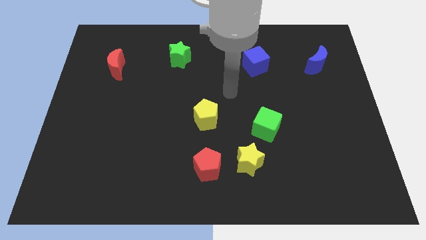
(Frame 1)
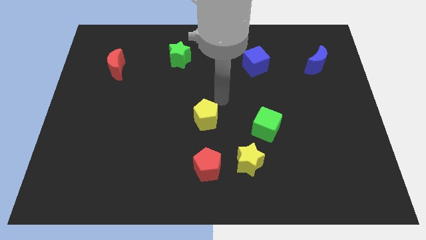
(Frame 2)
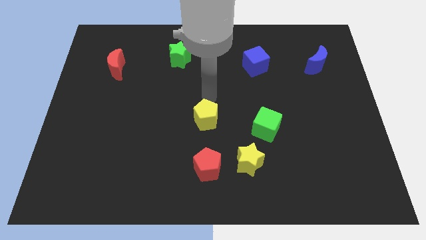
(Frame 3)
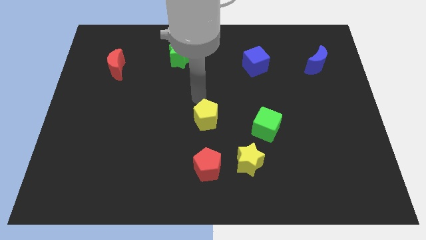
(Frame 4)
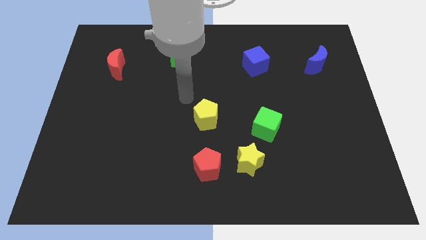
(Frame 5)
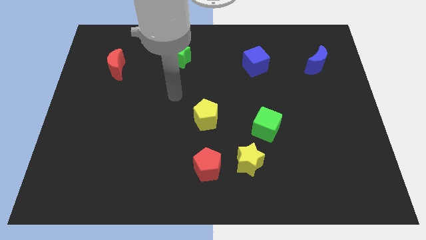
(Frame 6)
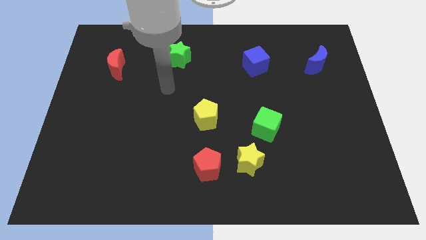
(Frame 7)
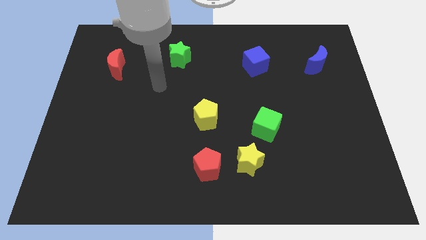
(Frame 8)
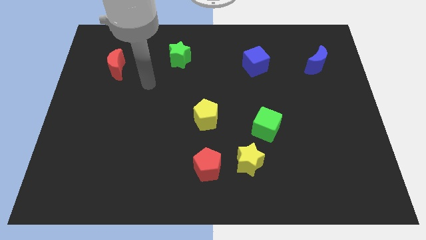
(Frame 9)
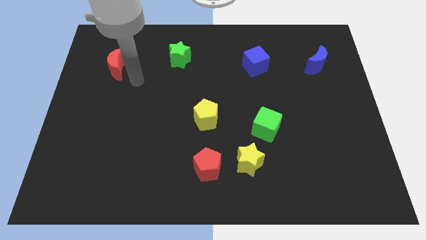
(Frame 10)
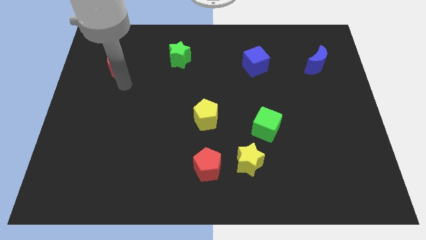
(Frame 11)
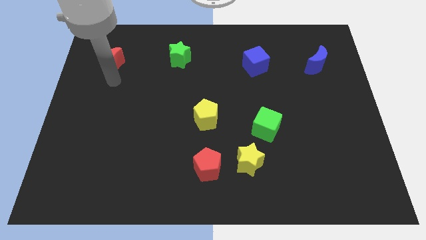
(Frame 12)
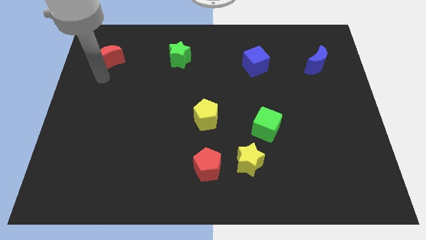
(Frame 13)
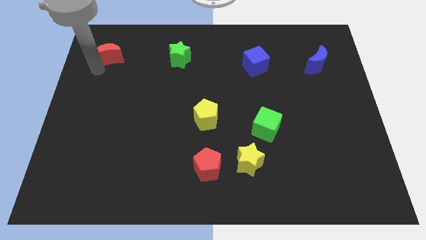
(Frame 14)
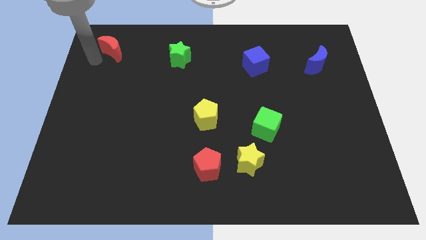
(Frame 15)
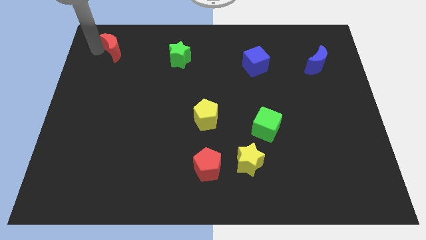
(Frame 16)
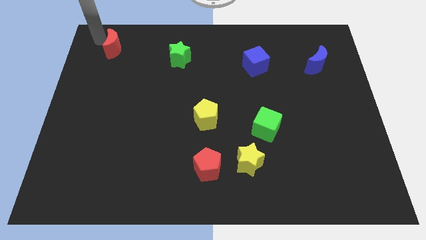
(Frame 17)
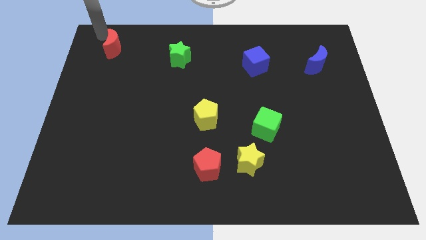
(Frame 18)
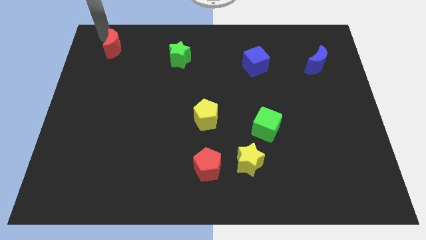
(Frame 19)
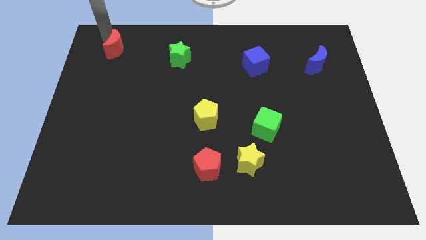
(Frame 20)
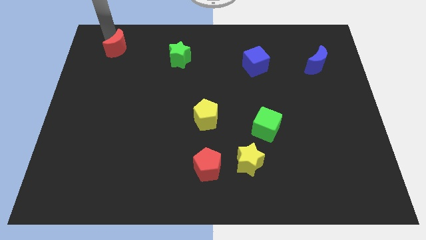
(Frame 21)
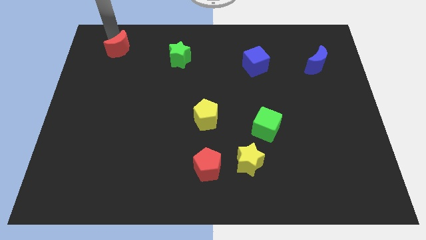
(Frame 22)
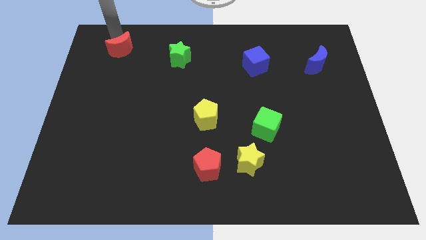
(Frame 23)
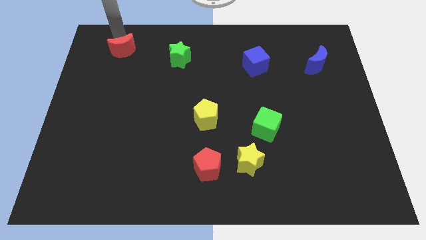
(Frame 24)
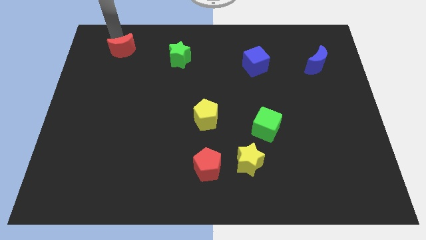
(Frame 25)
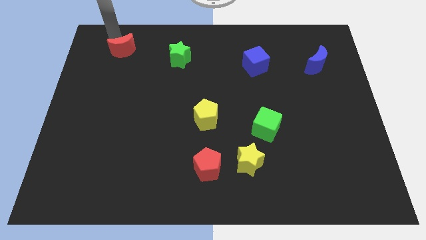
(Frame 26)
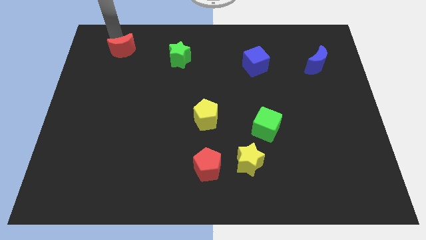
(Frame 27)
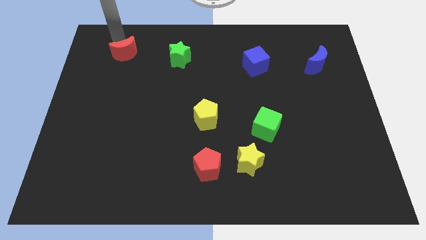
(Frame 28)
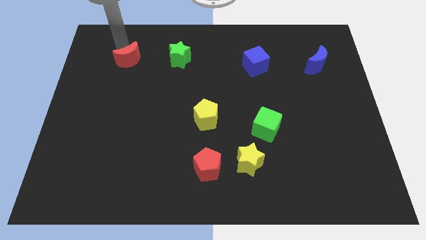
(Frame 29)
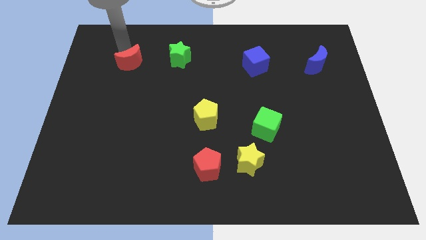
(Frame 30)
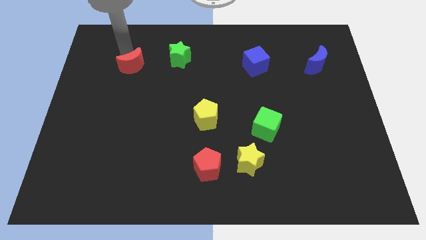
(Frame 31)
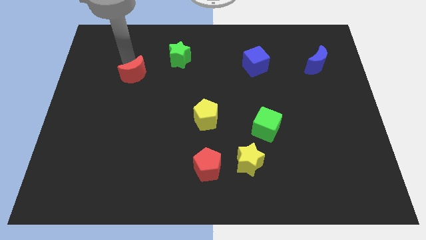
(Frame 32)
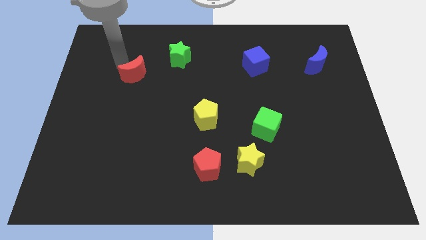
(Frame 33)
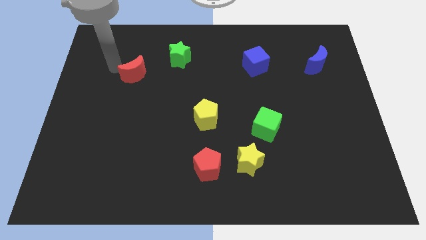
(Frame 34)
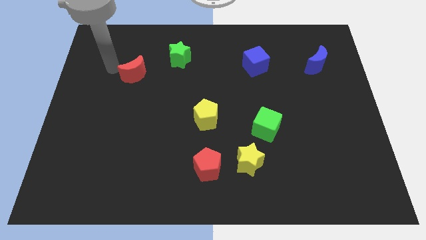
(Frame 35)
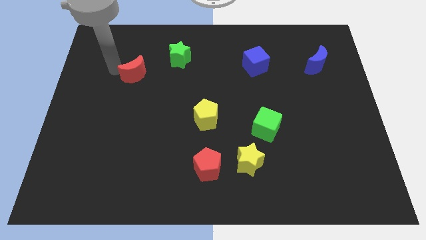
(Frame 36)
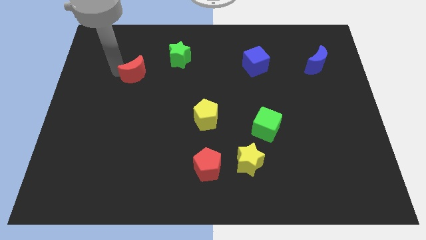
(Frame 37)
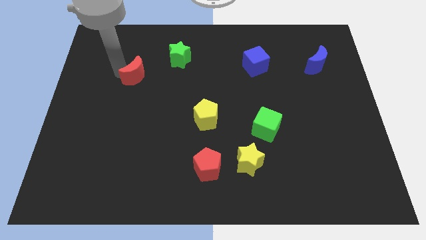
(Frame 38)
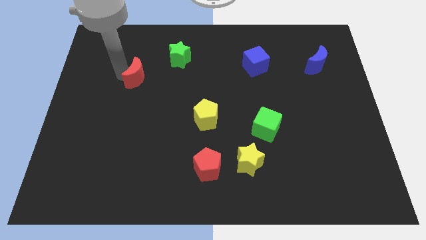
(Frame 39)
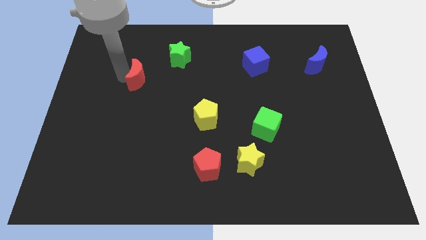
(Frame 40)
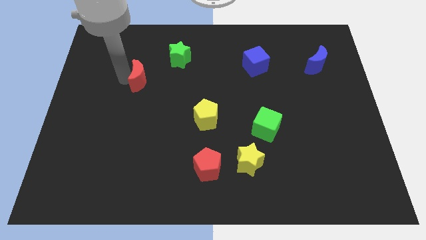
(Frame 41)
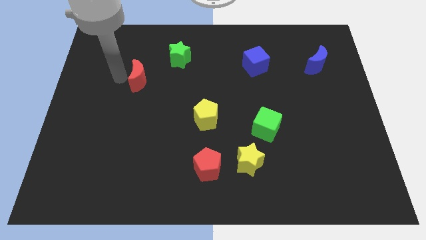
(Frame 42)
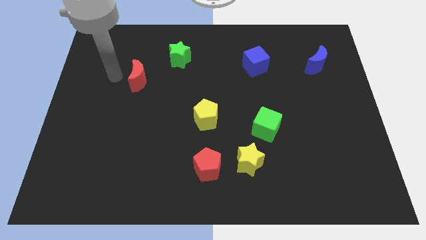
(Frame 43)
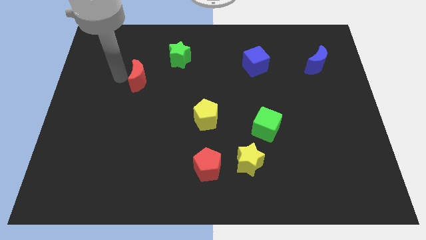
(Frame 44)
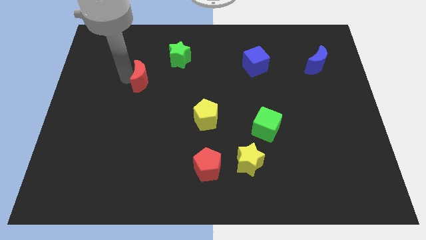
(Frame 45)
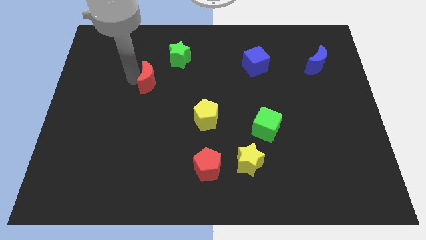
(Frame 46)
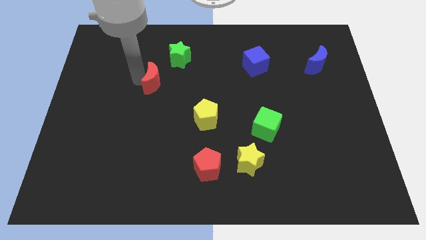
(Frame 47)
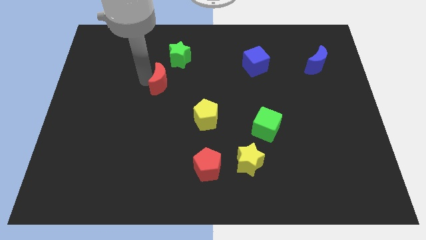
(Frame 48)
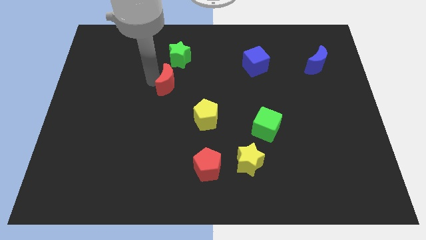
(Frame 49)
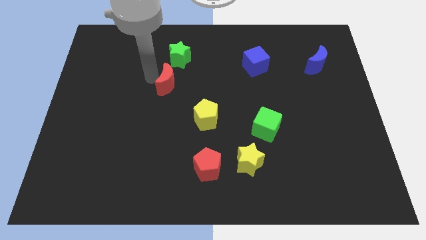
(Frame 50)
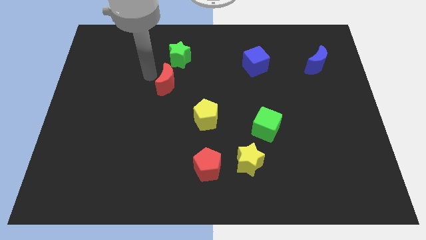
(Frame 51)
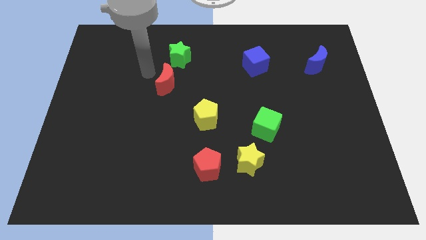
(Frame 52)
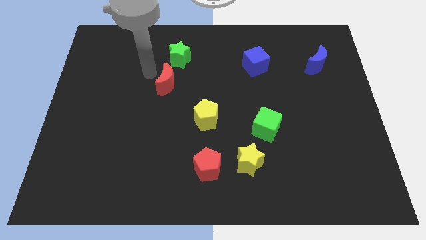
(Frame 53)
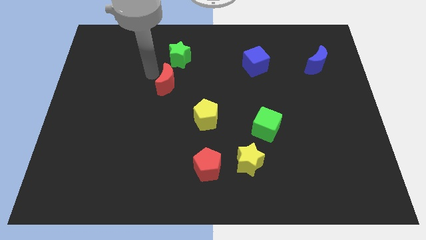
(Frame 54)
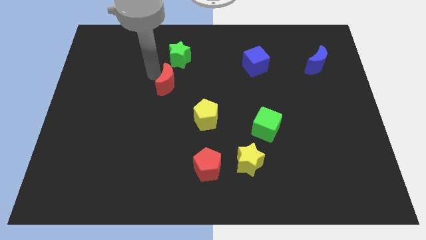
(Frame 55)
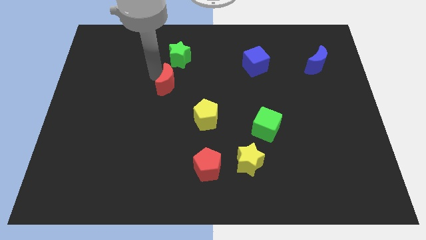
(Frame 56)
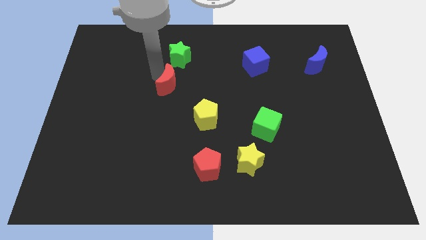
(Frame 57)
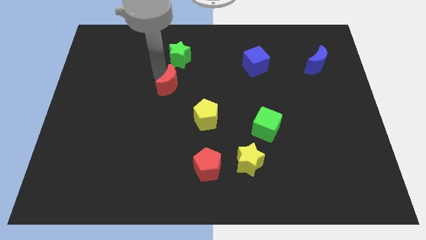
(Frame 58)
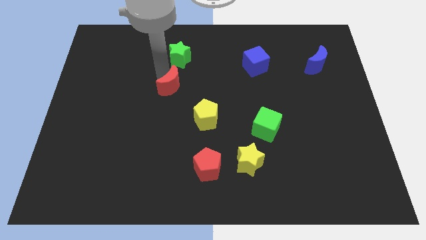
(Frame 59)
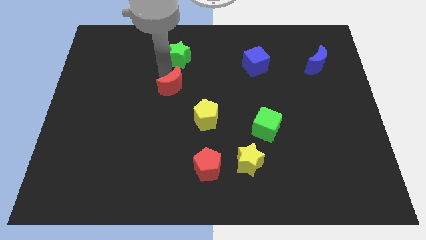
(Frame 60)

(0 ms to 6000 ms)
move the red moon diagonally up and to the left of the yellow pentagon
